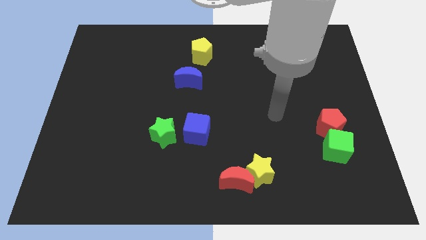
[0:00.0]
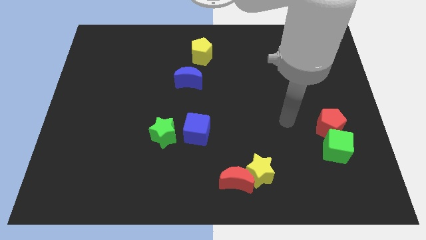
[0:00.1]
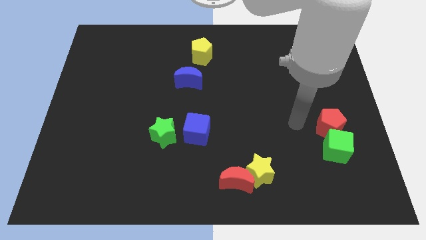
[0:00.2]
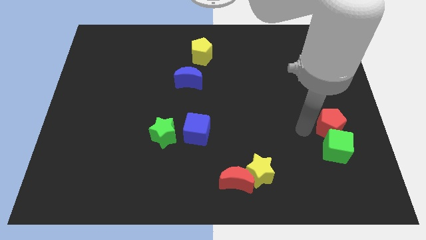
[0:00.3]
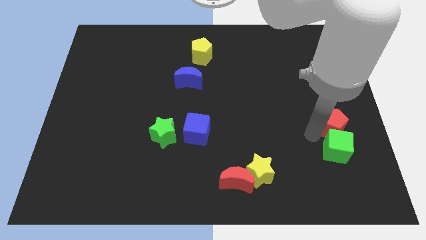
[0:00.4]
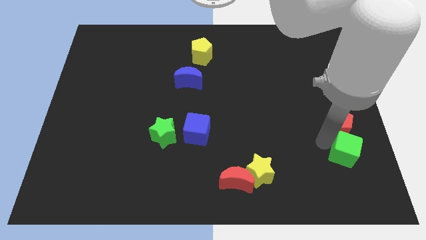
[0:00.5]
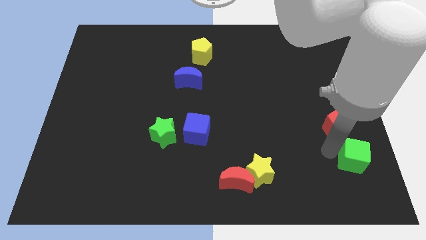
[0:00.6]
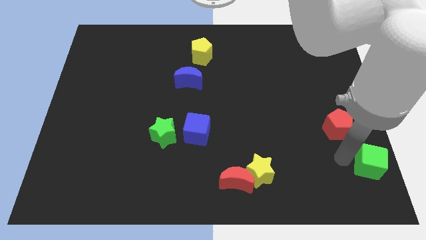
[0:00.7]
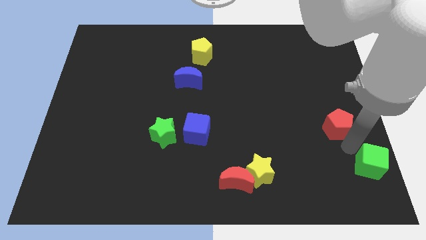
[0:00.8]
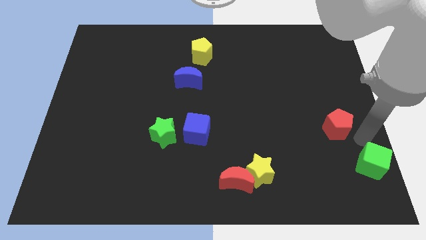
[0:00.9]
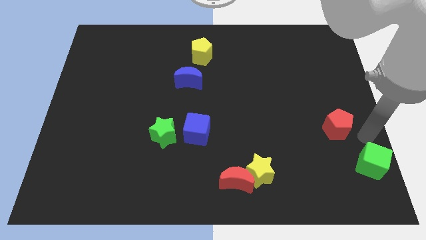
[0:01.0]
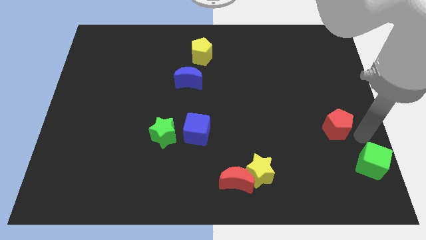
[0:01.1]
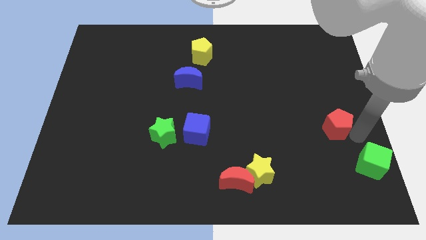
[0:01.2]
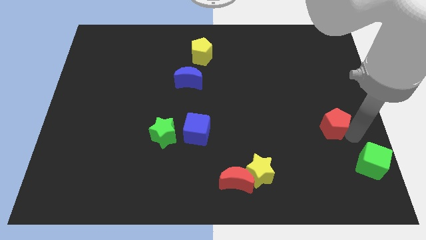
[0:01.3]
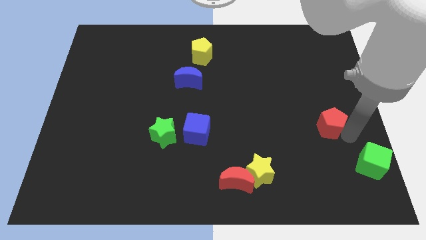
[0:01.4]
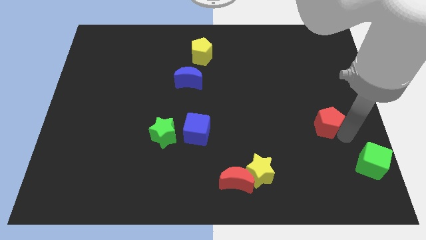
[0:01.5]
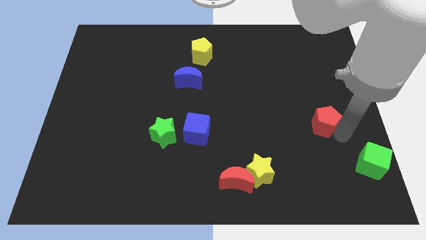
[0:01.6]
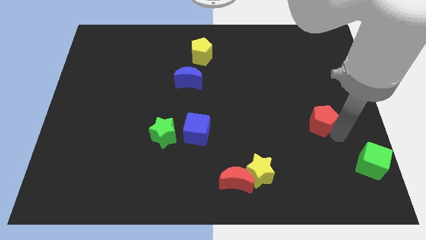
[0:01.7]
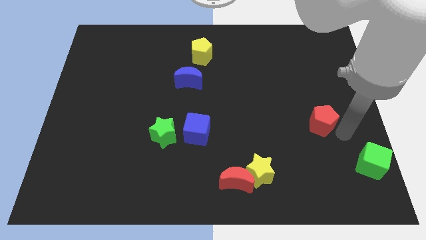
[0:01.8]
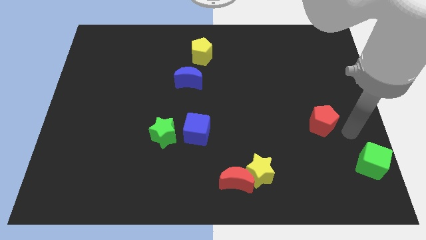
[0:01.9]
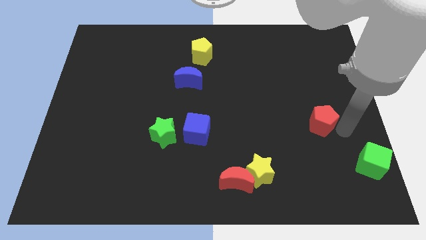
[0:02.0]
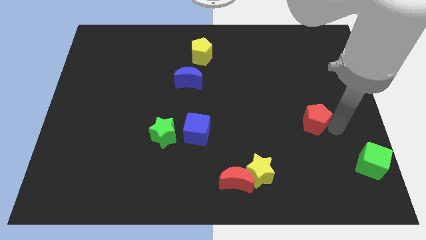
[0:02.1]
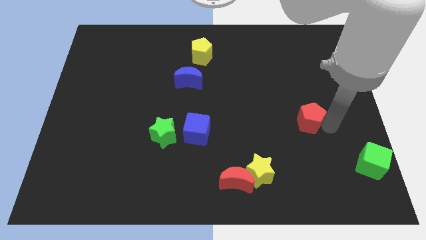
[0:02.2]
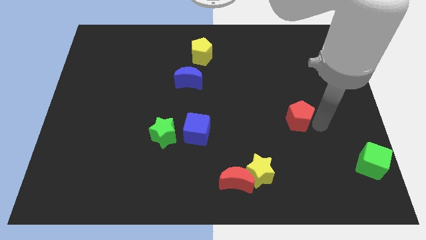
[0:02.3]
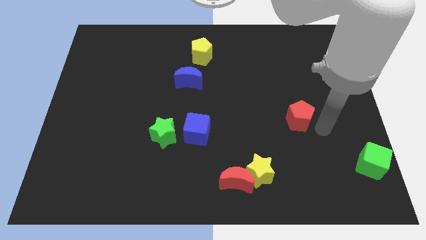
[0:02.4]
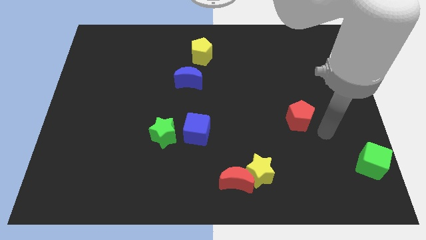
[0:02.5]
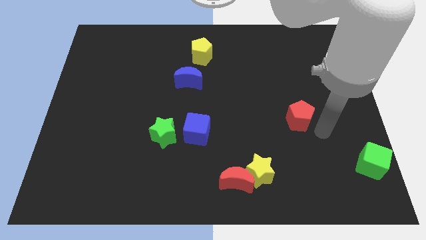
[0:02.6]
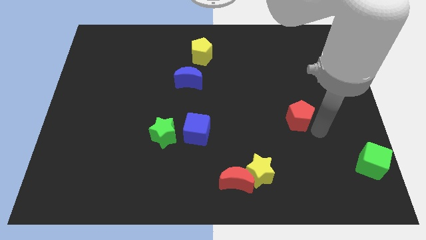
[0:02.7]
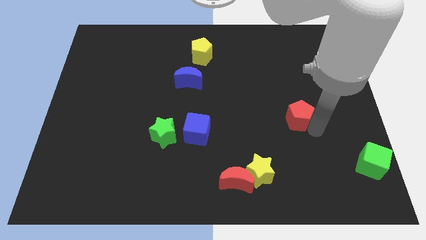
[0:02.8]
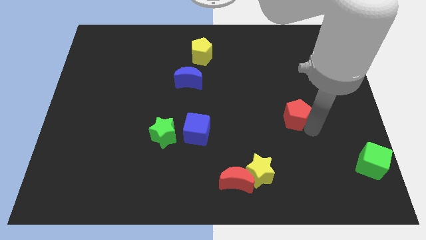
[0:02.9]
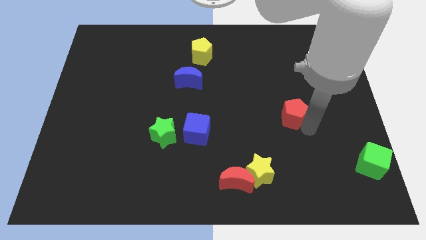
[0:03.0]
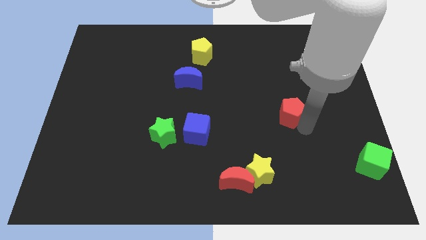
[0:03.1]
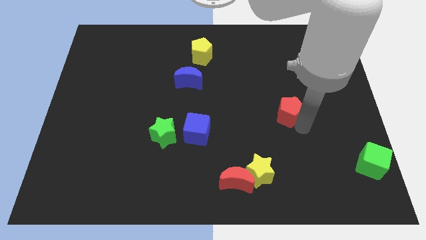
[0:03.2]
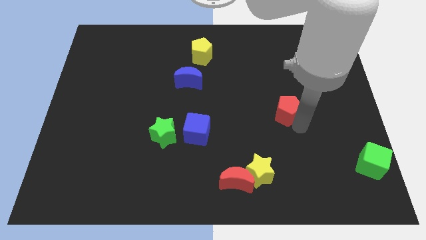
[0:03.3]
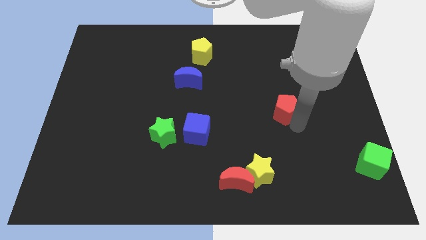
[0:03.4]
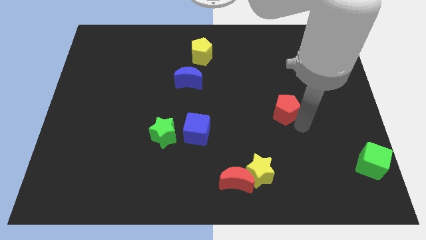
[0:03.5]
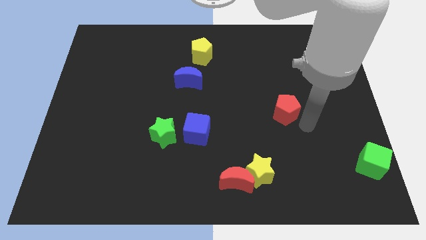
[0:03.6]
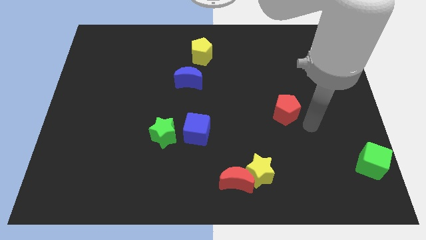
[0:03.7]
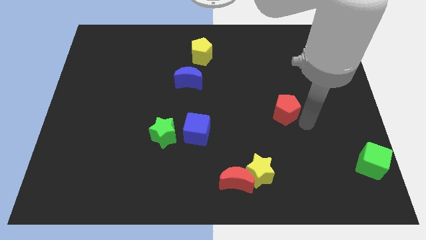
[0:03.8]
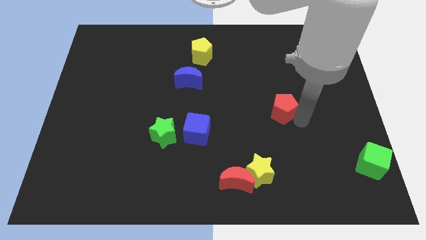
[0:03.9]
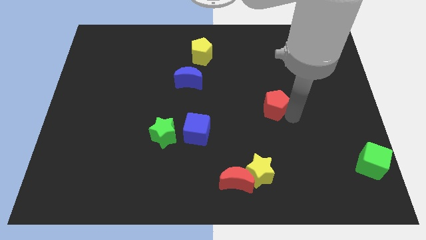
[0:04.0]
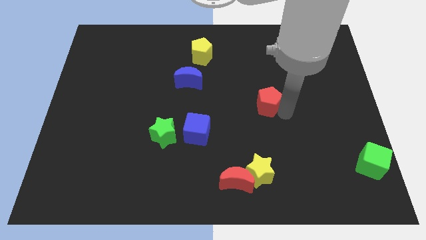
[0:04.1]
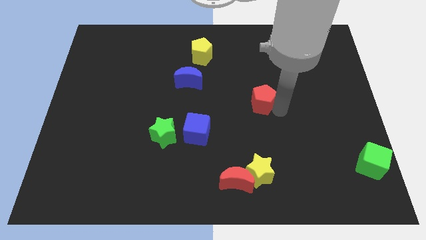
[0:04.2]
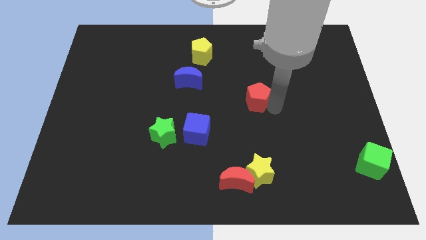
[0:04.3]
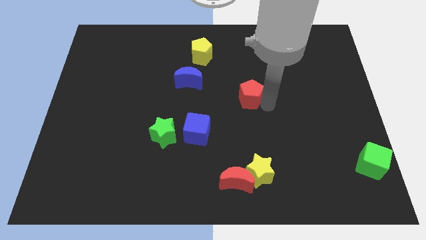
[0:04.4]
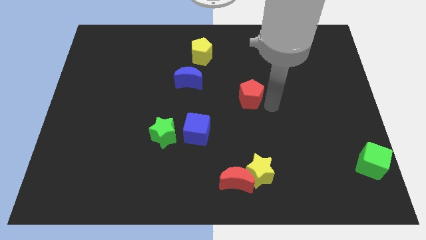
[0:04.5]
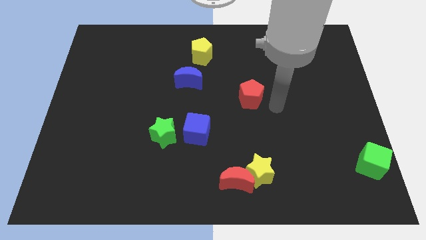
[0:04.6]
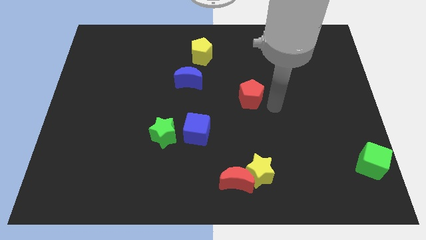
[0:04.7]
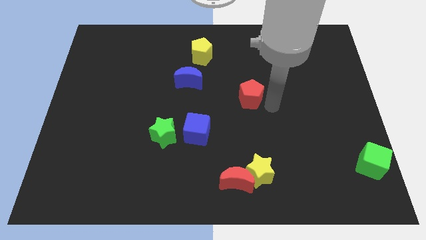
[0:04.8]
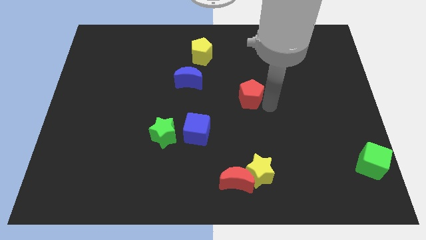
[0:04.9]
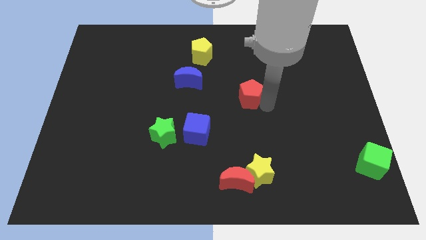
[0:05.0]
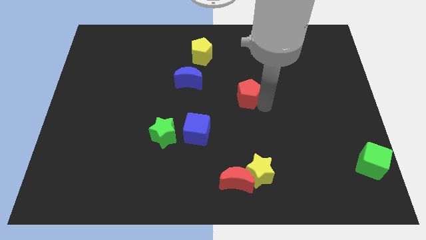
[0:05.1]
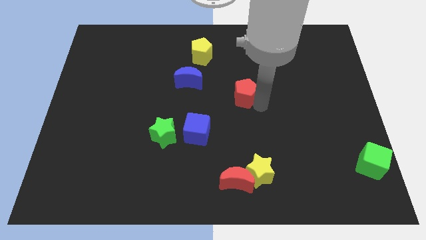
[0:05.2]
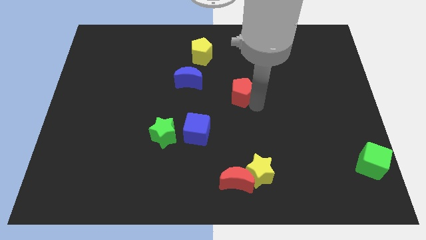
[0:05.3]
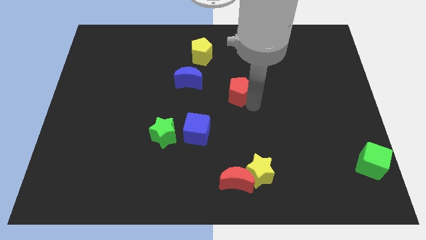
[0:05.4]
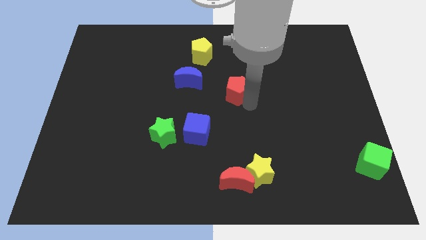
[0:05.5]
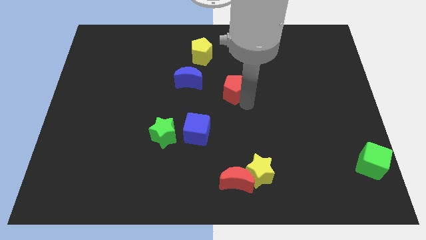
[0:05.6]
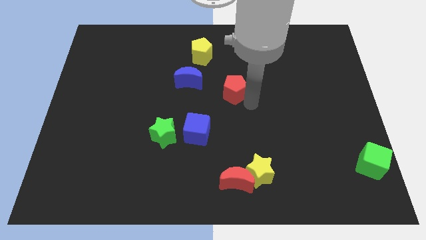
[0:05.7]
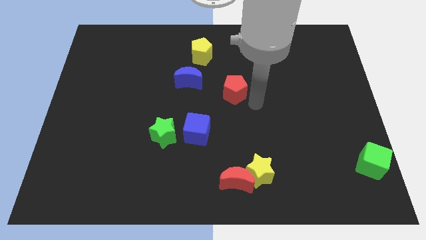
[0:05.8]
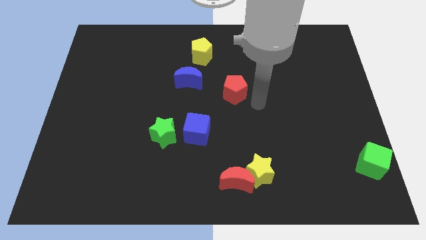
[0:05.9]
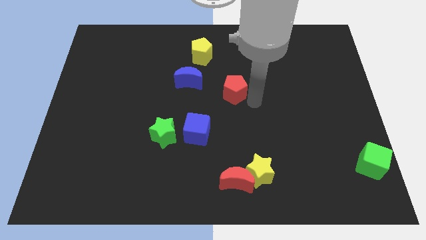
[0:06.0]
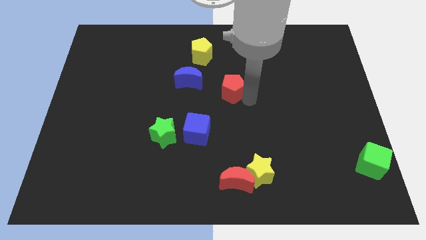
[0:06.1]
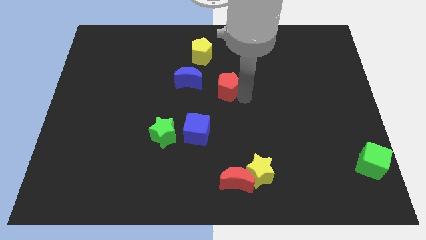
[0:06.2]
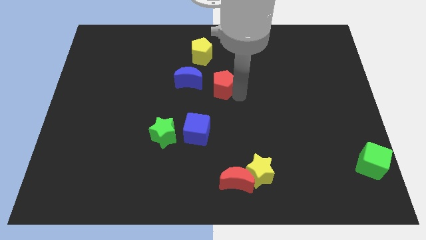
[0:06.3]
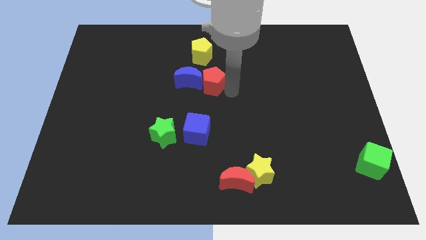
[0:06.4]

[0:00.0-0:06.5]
push the red pentagon to the blue moon
